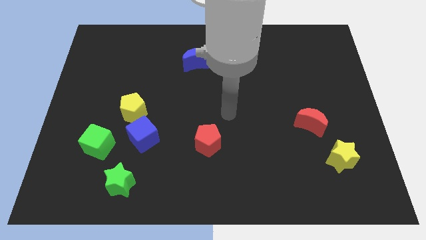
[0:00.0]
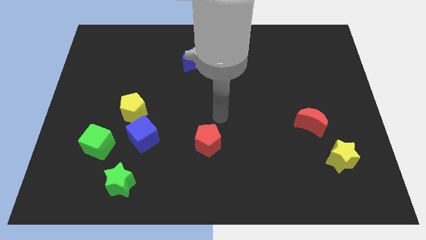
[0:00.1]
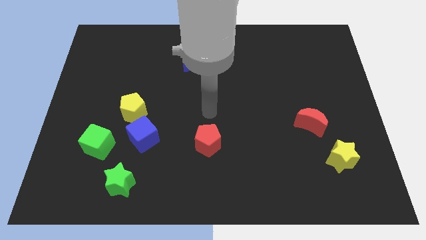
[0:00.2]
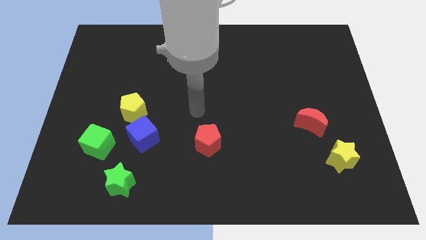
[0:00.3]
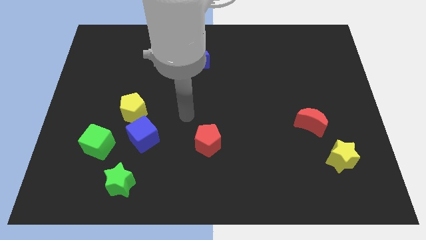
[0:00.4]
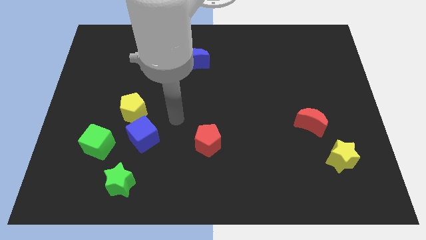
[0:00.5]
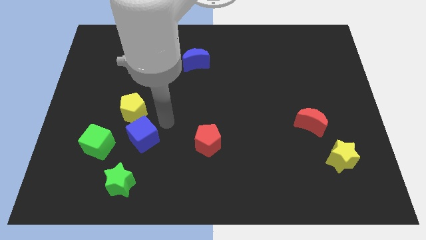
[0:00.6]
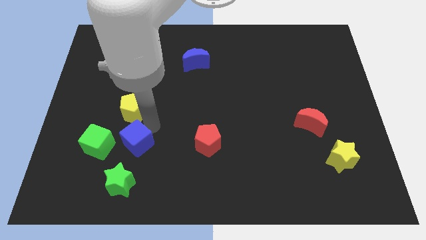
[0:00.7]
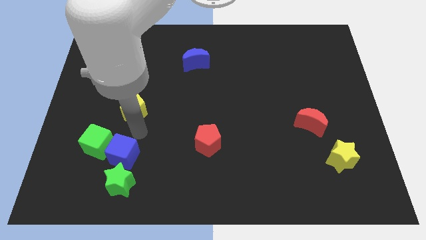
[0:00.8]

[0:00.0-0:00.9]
move the yellow pentagon away from the blue cube

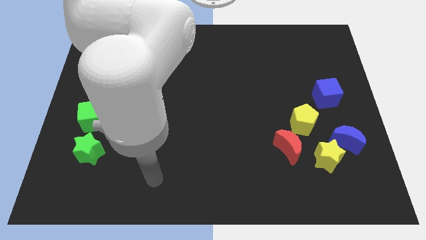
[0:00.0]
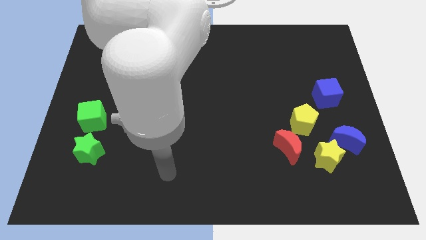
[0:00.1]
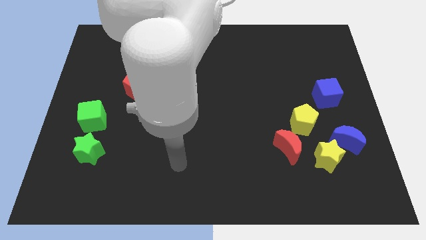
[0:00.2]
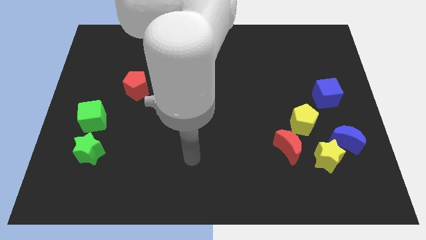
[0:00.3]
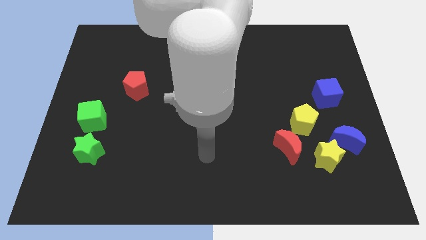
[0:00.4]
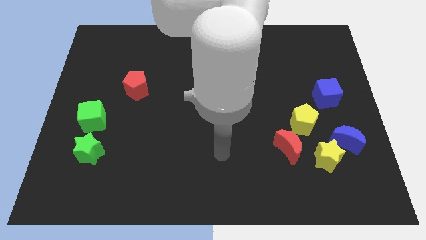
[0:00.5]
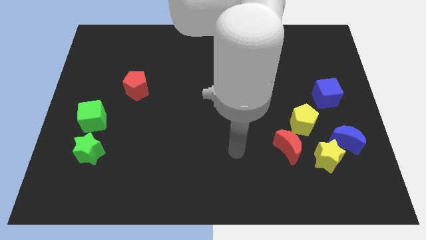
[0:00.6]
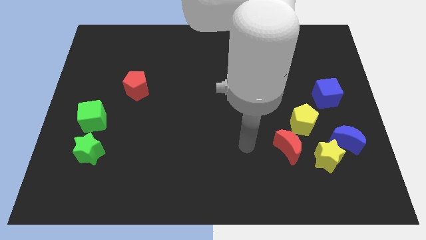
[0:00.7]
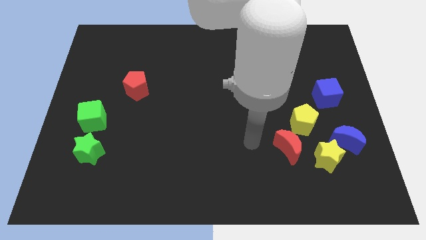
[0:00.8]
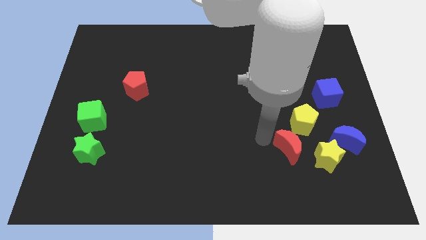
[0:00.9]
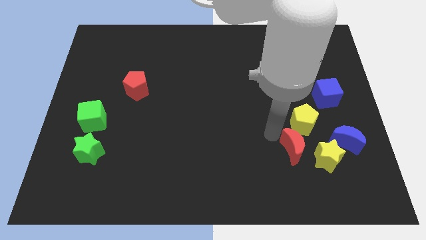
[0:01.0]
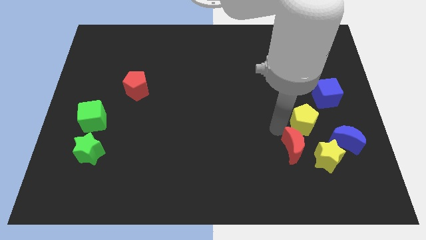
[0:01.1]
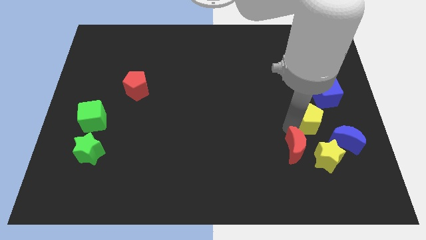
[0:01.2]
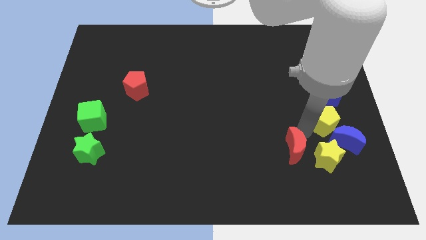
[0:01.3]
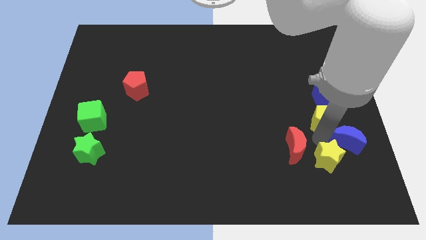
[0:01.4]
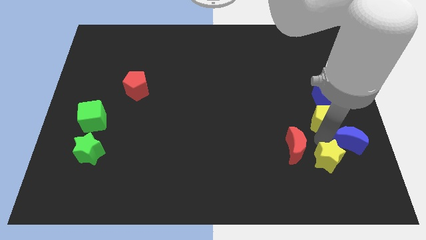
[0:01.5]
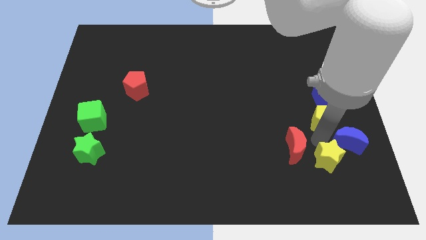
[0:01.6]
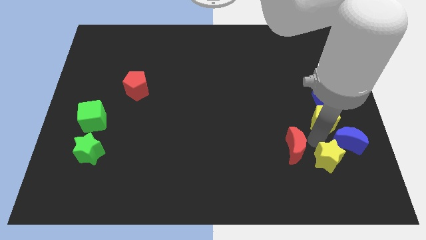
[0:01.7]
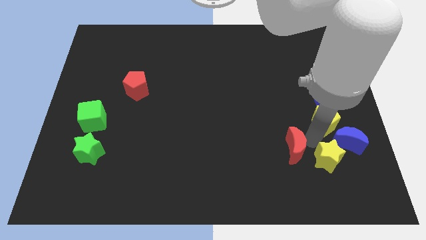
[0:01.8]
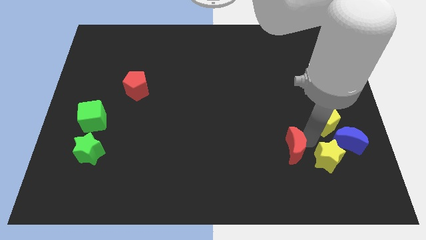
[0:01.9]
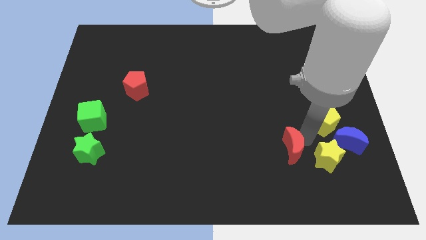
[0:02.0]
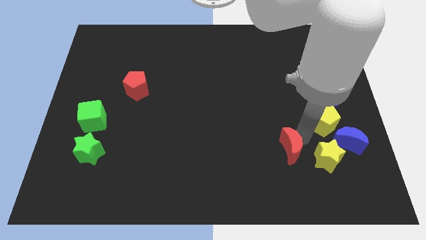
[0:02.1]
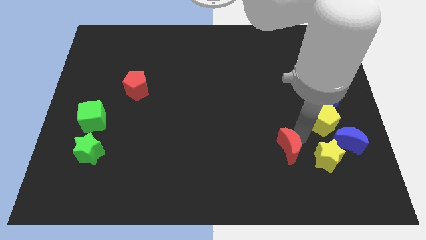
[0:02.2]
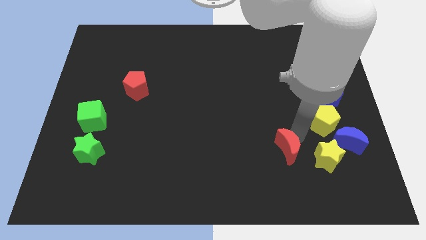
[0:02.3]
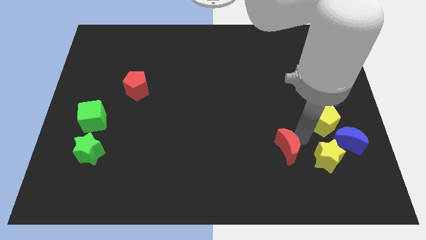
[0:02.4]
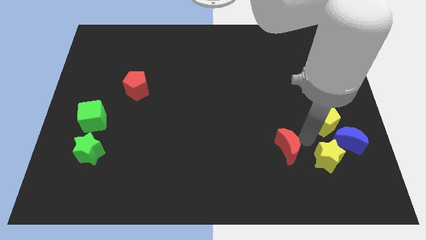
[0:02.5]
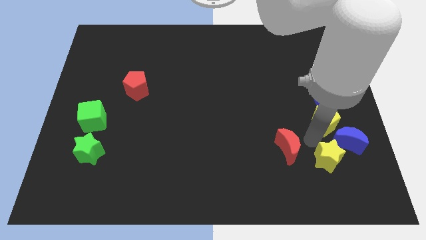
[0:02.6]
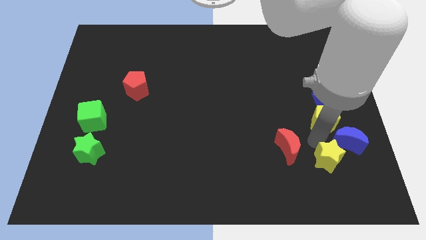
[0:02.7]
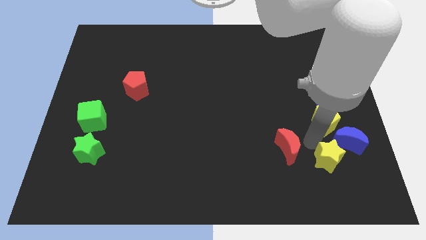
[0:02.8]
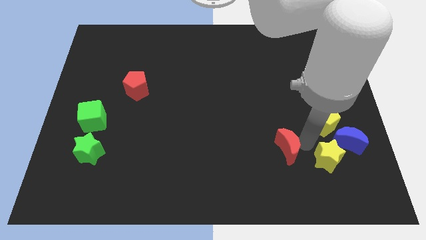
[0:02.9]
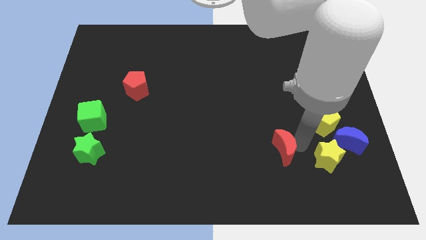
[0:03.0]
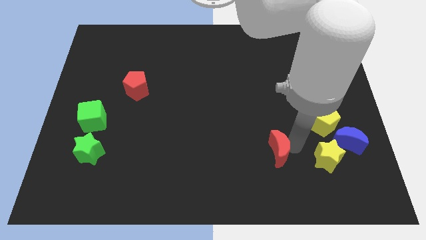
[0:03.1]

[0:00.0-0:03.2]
move the red moon away from the yellow pentagon and yellow star

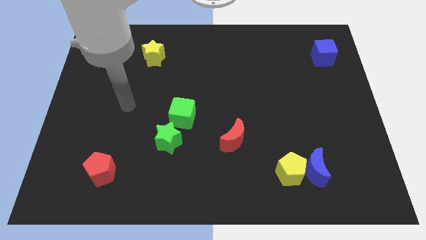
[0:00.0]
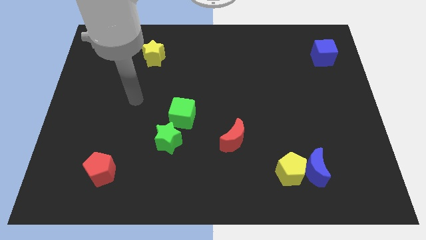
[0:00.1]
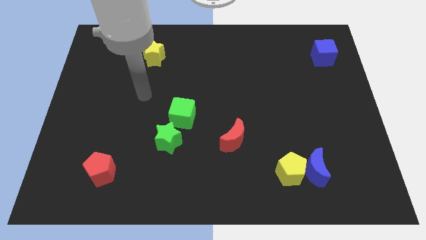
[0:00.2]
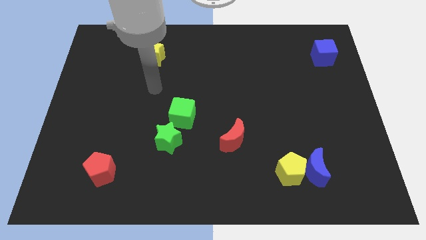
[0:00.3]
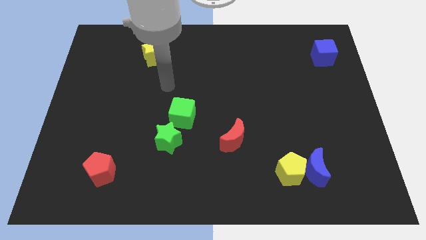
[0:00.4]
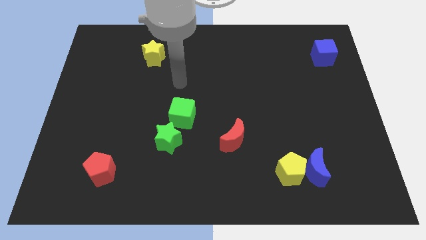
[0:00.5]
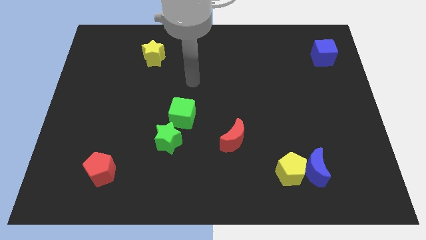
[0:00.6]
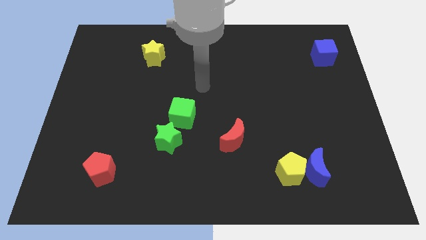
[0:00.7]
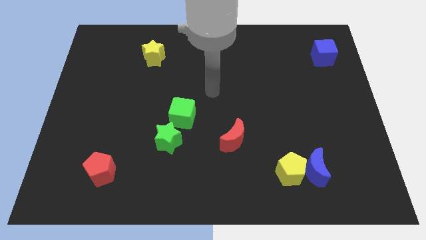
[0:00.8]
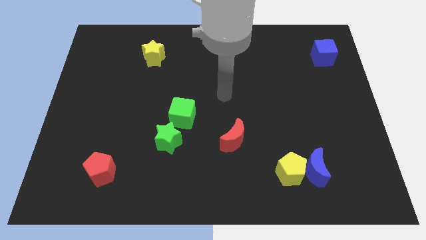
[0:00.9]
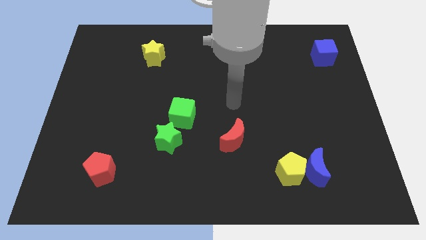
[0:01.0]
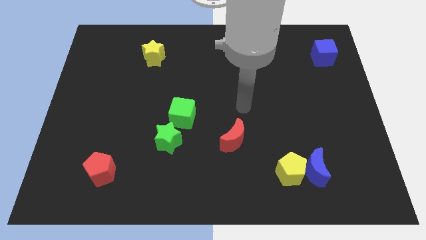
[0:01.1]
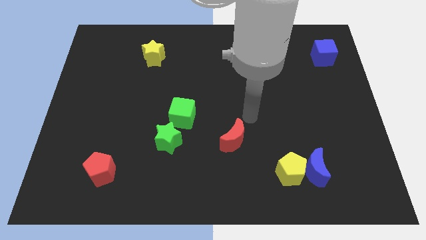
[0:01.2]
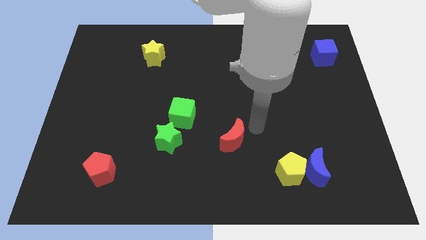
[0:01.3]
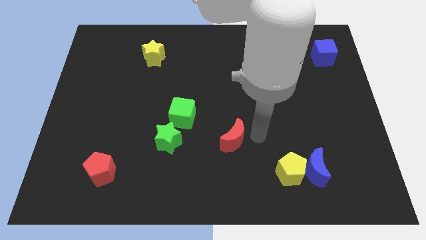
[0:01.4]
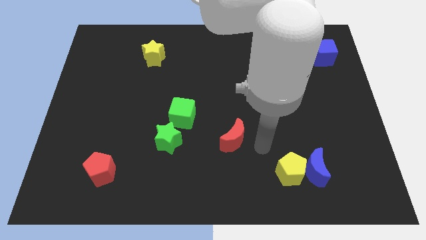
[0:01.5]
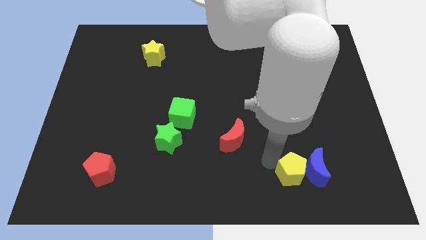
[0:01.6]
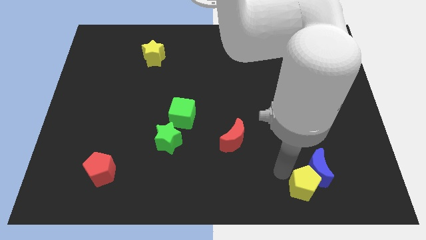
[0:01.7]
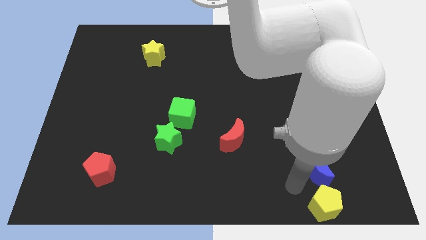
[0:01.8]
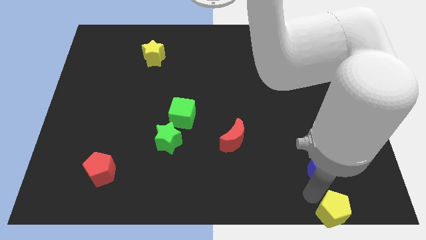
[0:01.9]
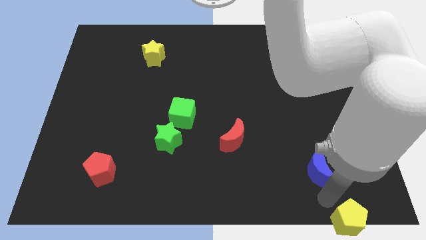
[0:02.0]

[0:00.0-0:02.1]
separate the blue moon from the yellow pentagon

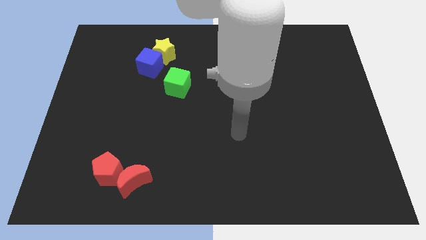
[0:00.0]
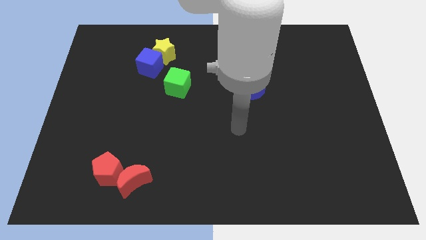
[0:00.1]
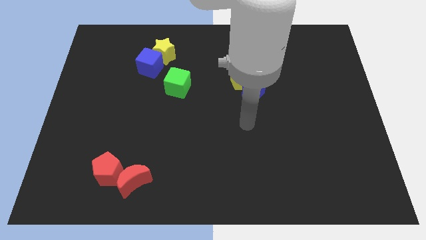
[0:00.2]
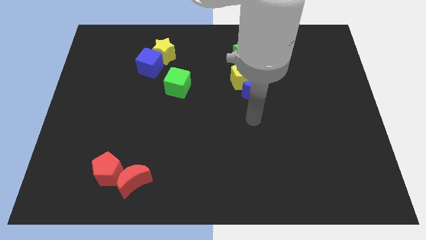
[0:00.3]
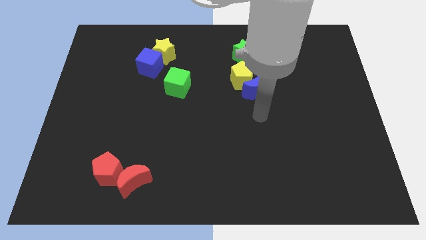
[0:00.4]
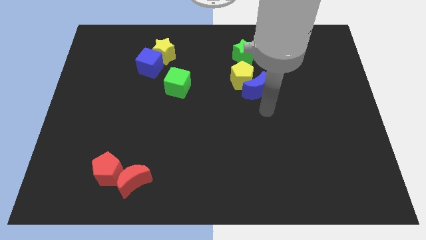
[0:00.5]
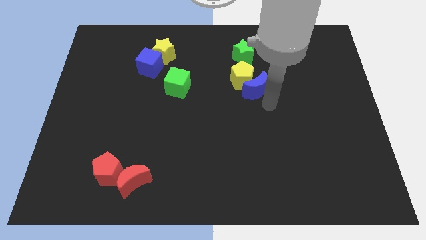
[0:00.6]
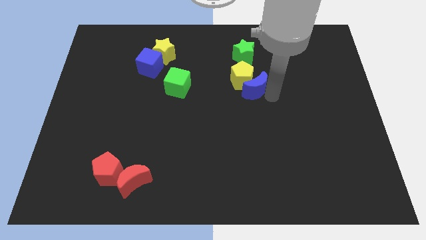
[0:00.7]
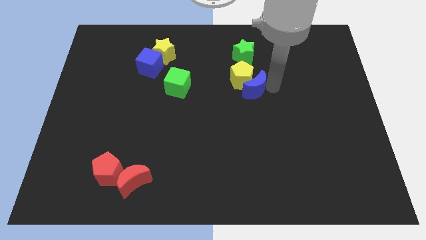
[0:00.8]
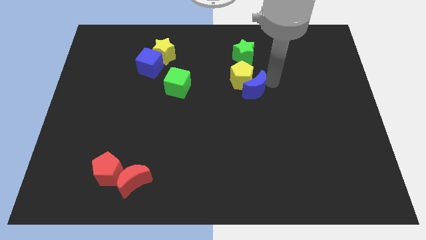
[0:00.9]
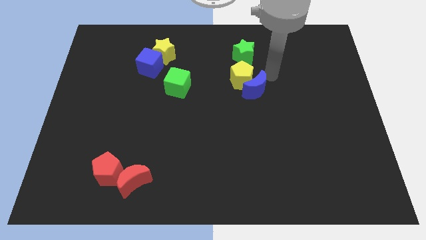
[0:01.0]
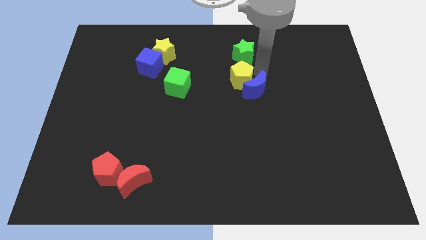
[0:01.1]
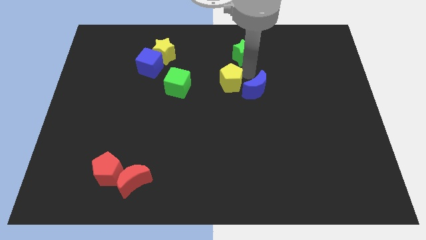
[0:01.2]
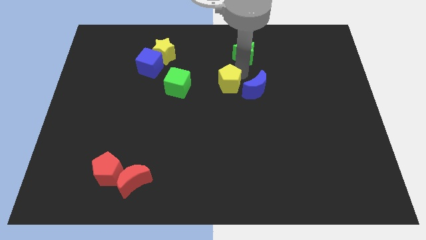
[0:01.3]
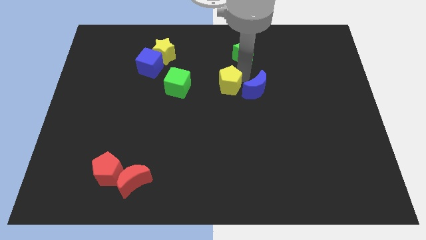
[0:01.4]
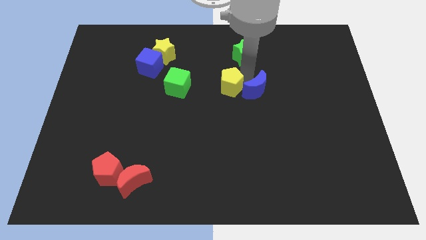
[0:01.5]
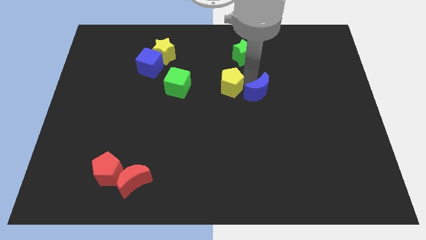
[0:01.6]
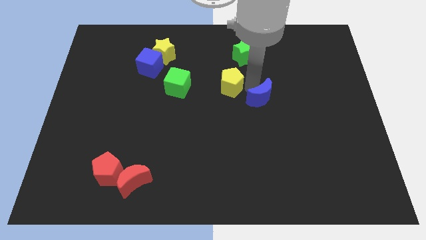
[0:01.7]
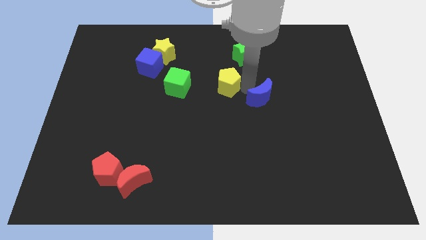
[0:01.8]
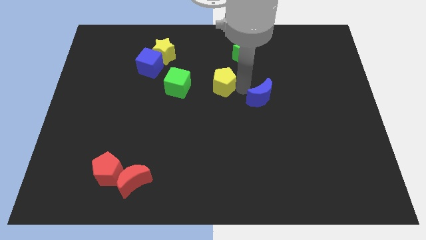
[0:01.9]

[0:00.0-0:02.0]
move the blue moon away from the yellow pentagon

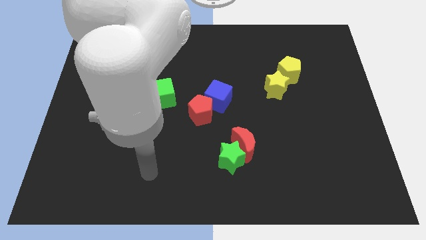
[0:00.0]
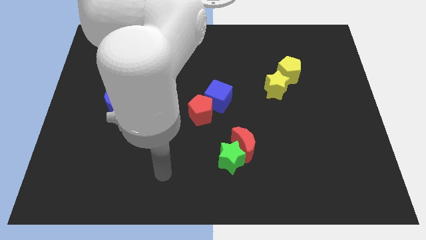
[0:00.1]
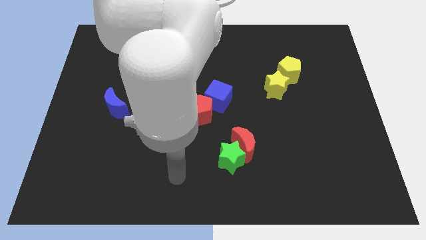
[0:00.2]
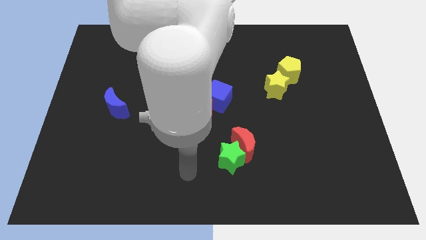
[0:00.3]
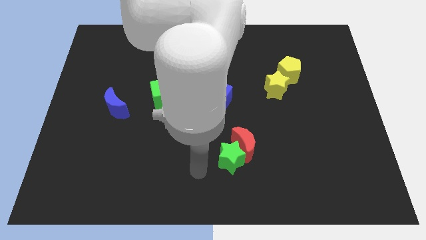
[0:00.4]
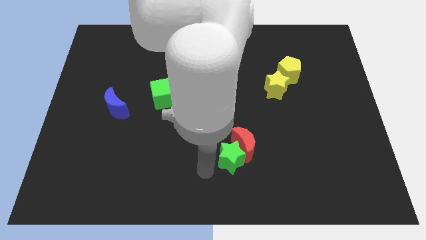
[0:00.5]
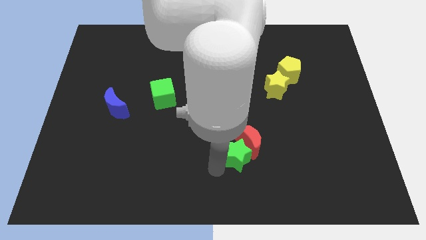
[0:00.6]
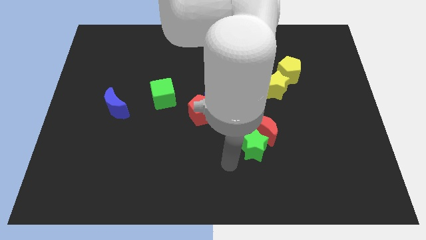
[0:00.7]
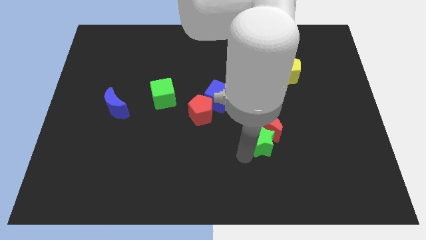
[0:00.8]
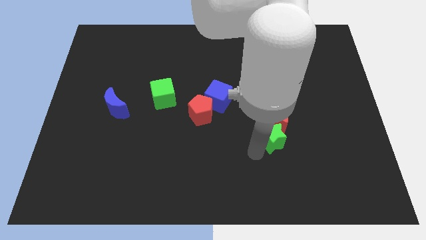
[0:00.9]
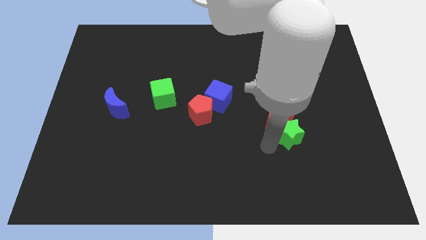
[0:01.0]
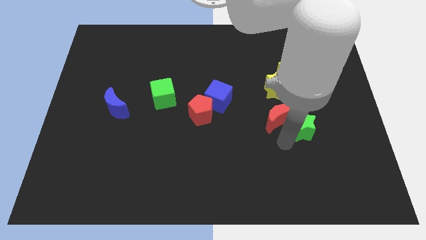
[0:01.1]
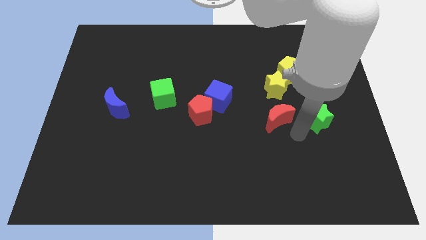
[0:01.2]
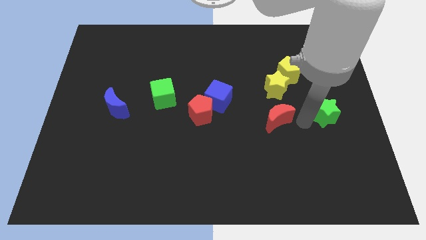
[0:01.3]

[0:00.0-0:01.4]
separate the red moon from the green star
